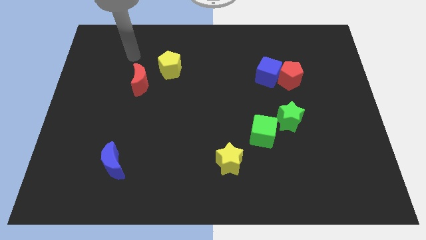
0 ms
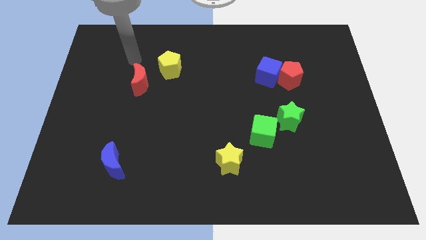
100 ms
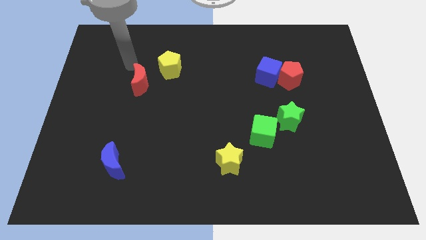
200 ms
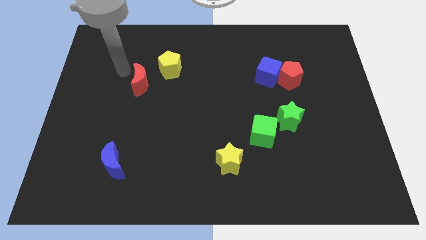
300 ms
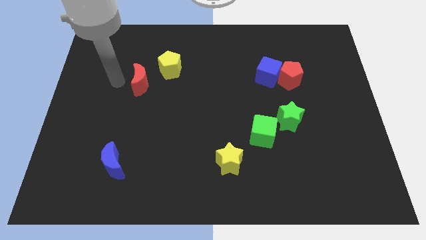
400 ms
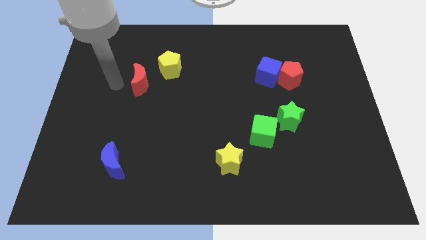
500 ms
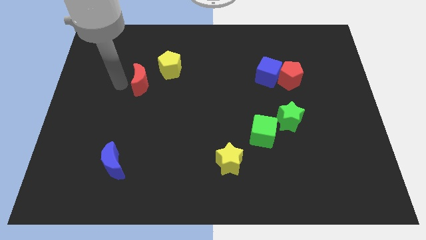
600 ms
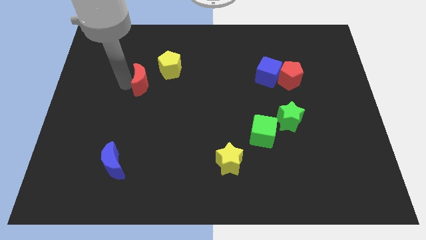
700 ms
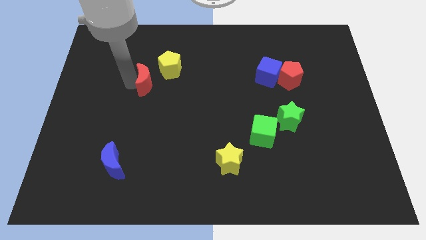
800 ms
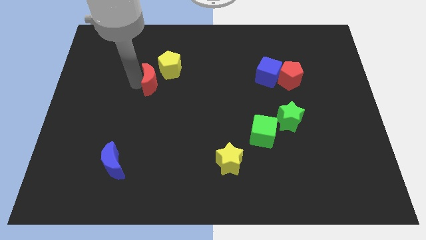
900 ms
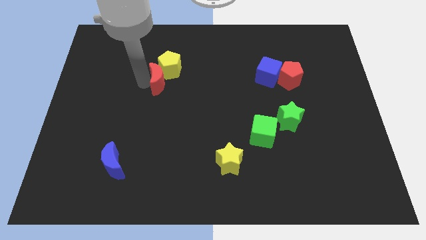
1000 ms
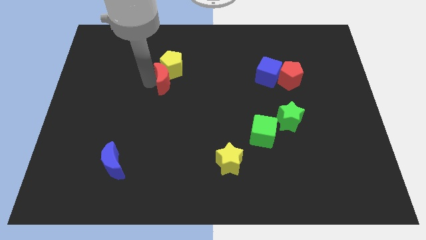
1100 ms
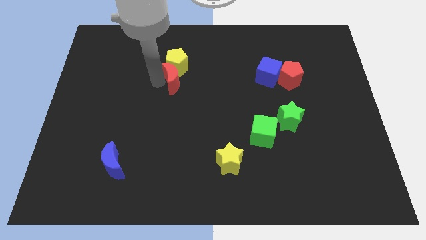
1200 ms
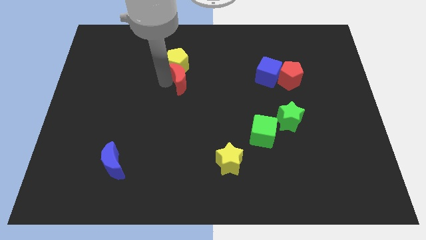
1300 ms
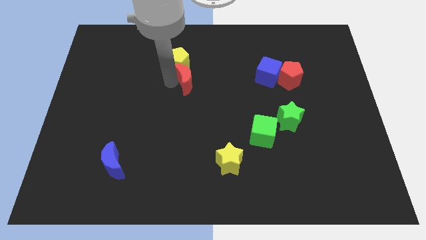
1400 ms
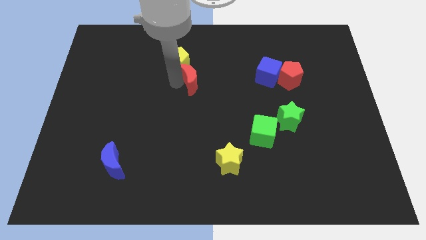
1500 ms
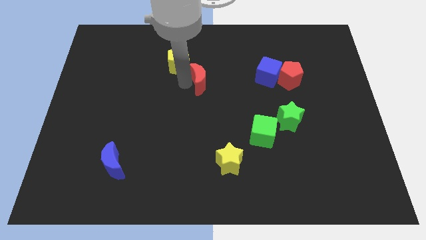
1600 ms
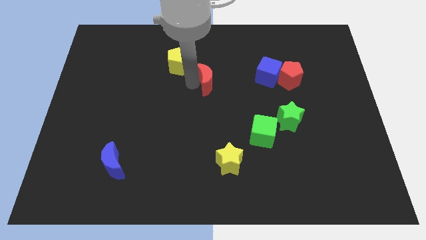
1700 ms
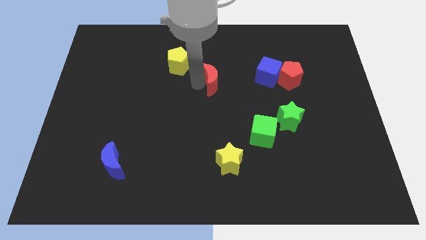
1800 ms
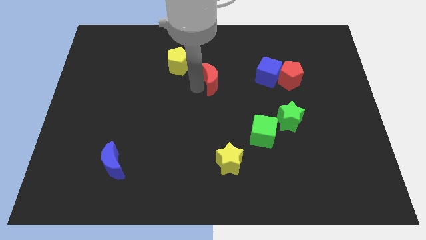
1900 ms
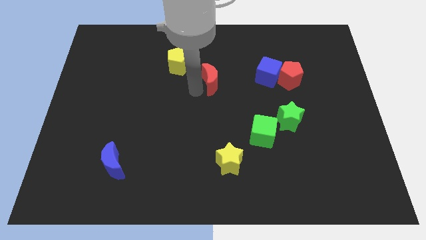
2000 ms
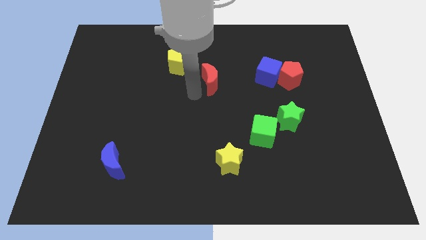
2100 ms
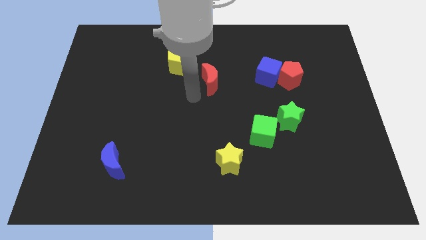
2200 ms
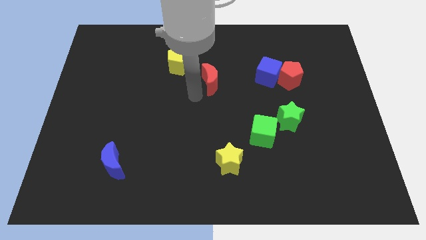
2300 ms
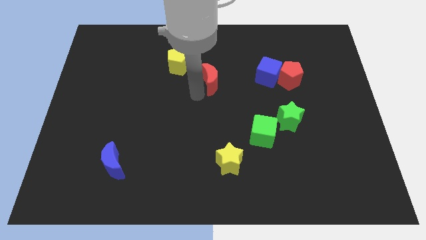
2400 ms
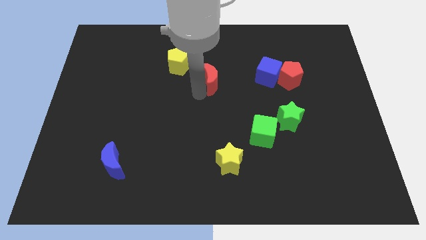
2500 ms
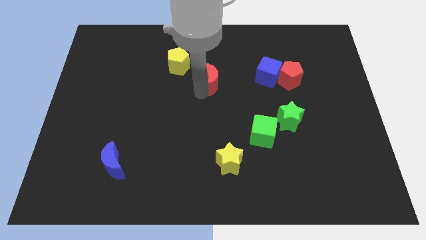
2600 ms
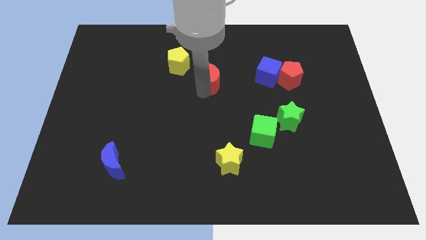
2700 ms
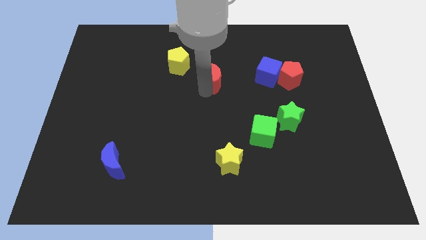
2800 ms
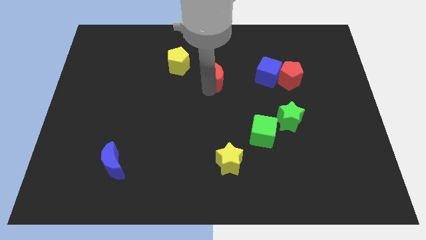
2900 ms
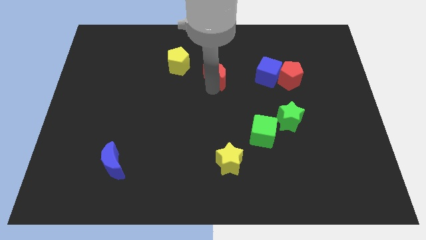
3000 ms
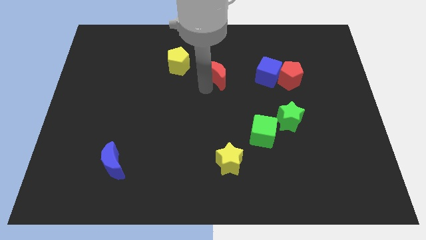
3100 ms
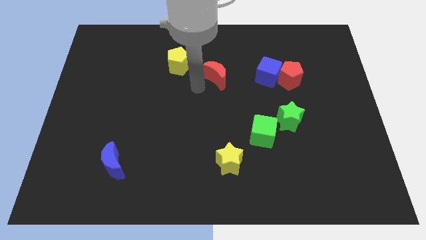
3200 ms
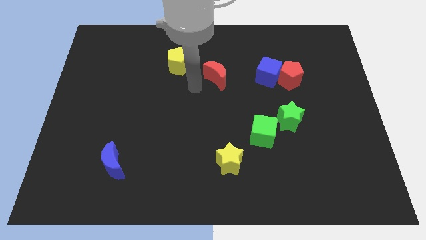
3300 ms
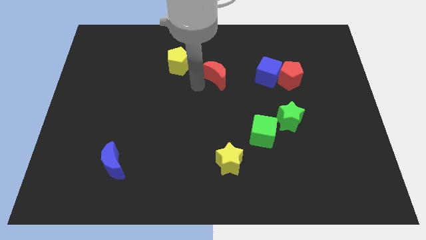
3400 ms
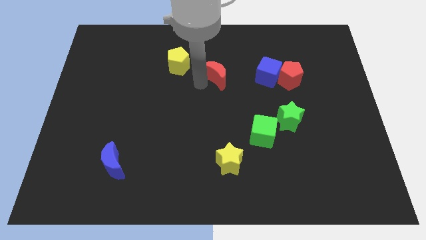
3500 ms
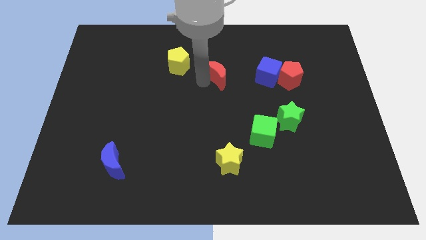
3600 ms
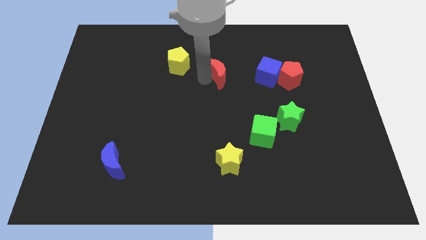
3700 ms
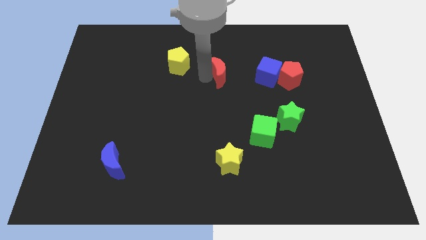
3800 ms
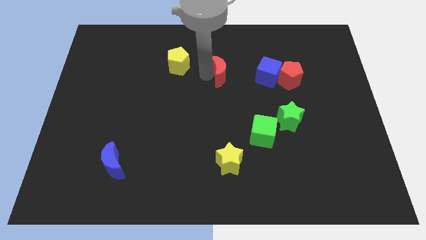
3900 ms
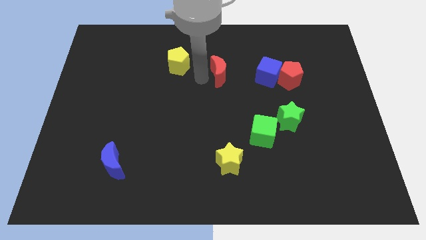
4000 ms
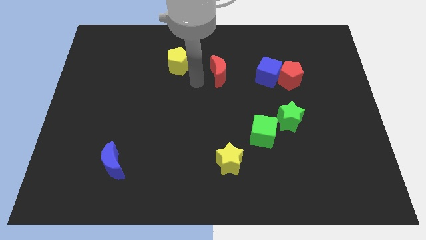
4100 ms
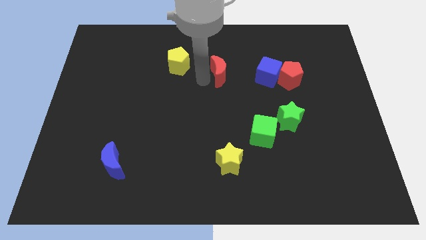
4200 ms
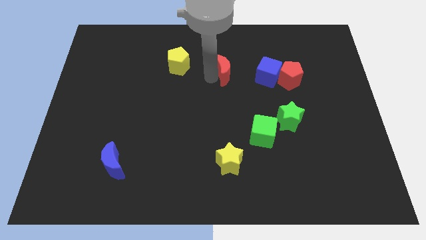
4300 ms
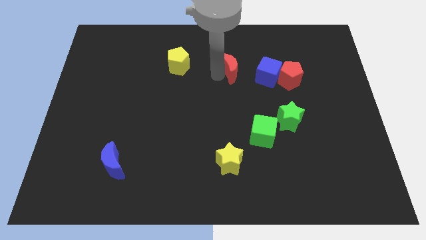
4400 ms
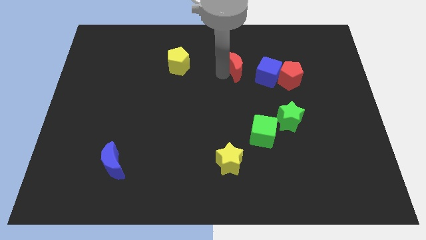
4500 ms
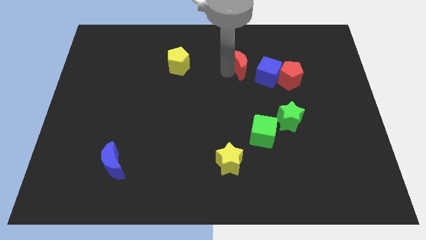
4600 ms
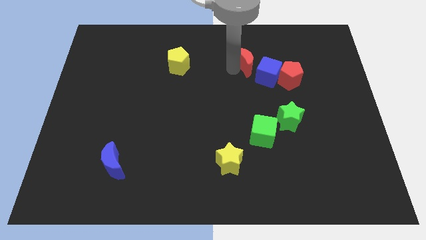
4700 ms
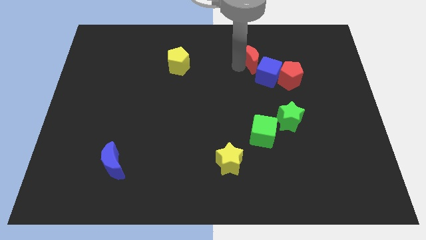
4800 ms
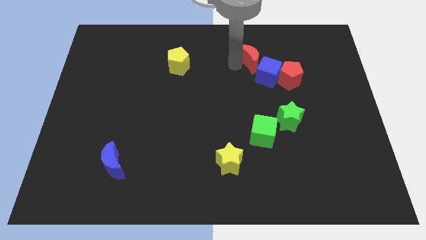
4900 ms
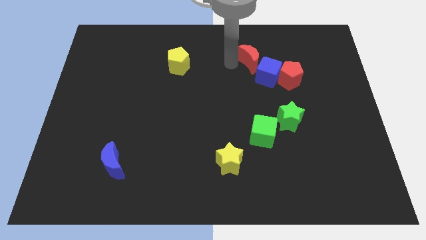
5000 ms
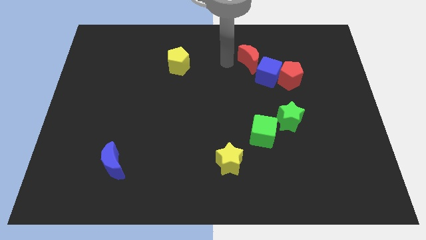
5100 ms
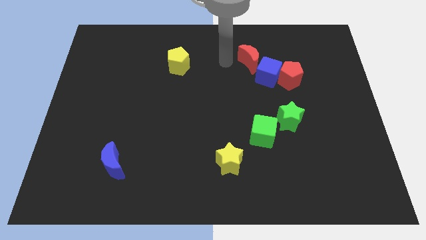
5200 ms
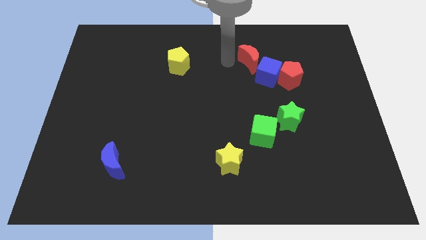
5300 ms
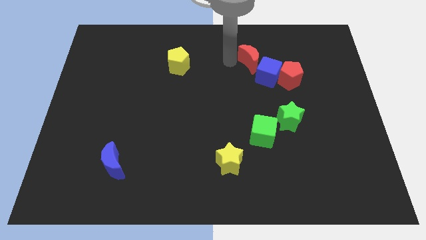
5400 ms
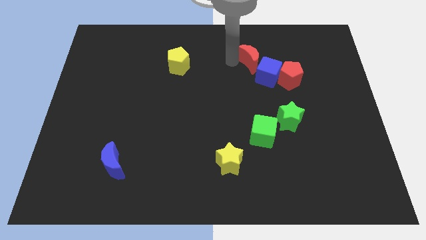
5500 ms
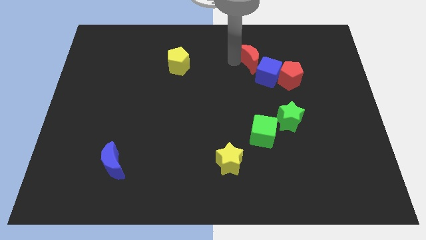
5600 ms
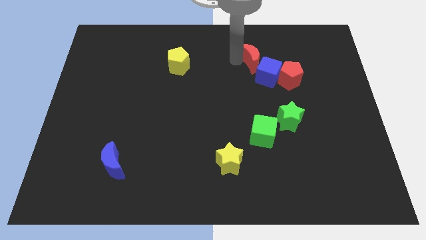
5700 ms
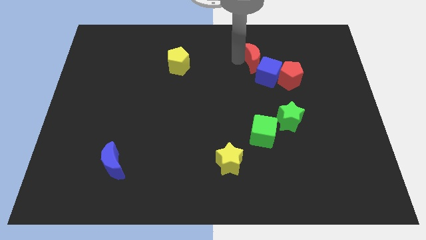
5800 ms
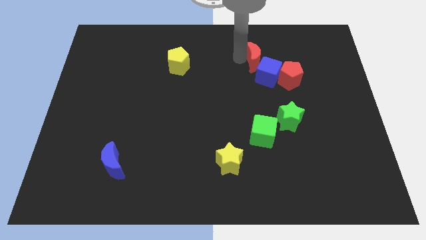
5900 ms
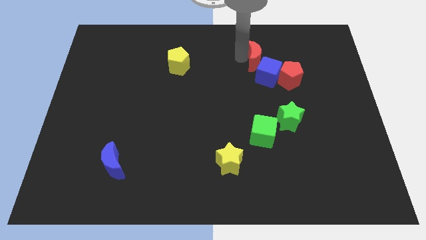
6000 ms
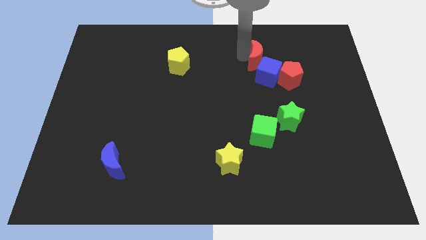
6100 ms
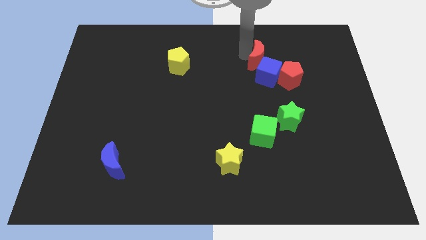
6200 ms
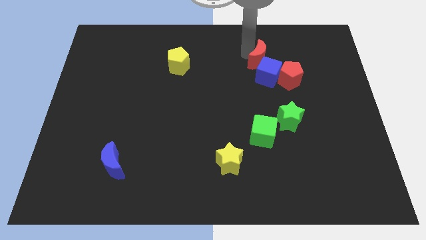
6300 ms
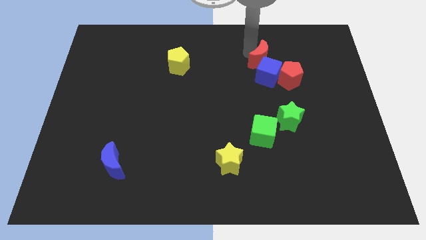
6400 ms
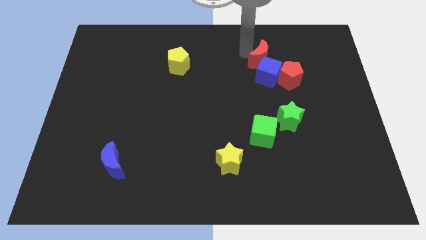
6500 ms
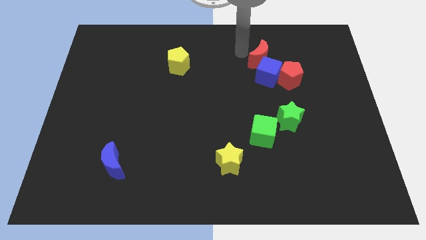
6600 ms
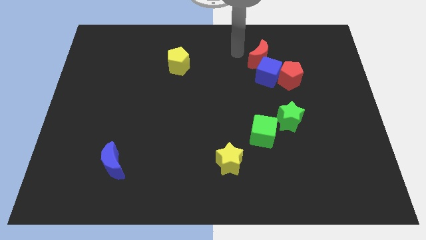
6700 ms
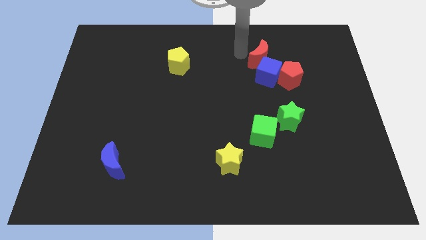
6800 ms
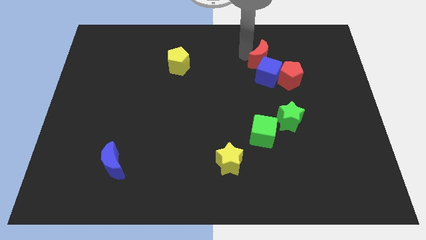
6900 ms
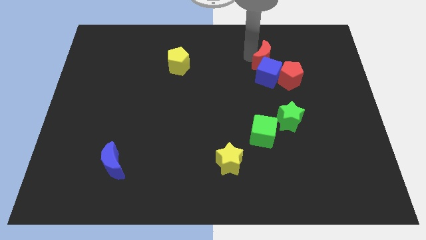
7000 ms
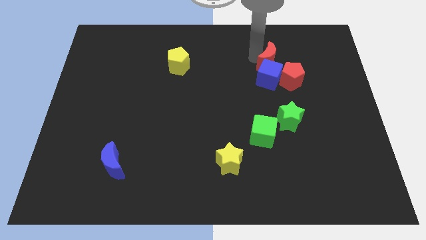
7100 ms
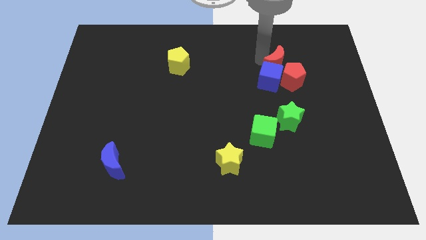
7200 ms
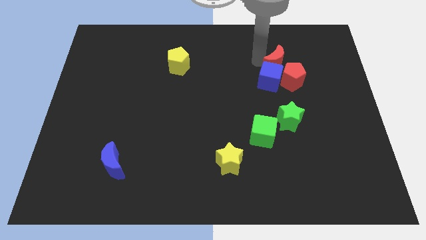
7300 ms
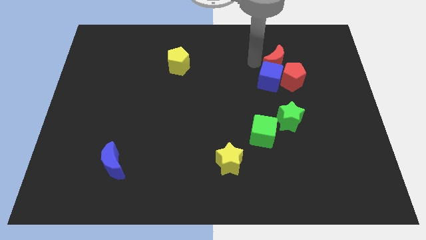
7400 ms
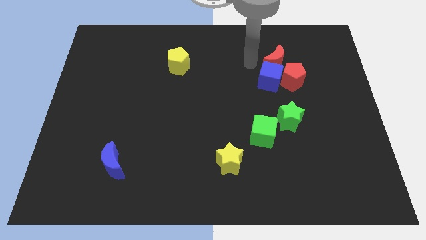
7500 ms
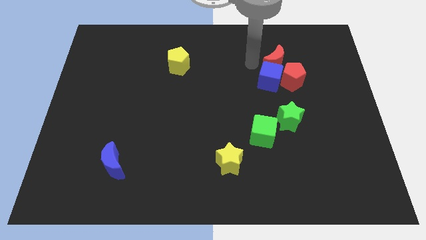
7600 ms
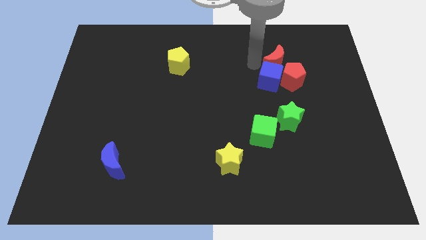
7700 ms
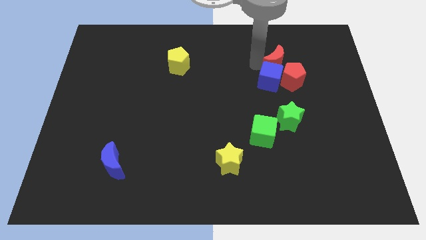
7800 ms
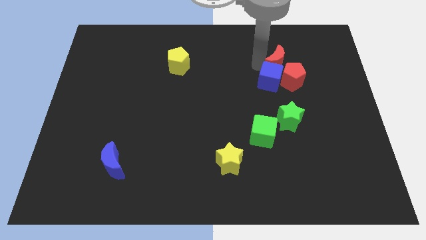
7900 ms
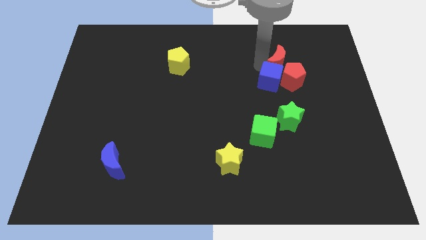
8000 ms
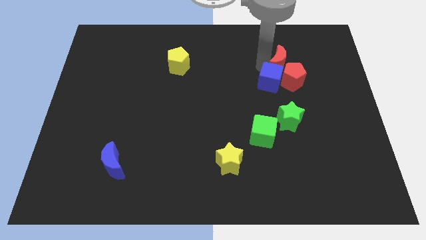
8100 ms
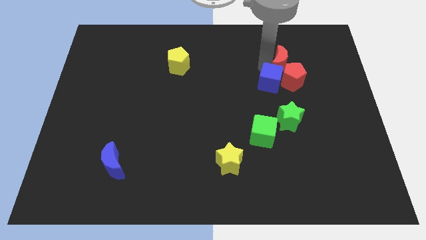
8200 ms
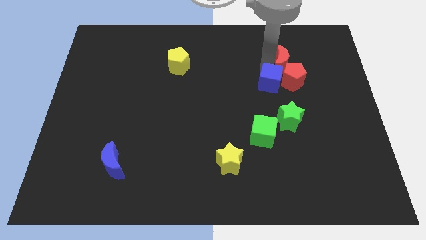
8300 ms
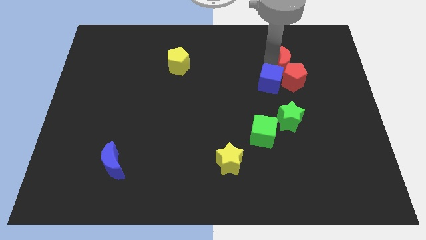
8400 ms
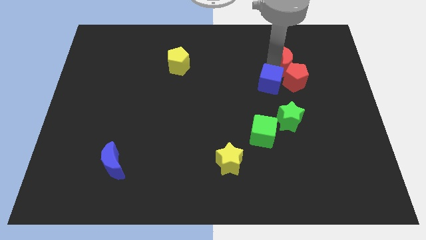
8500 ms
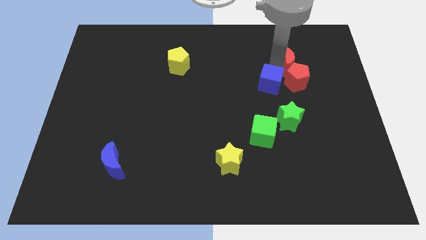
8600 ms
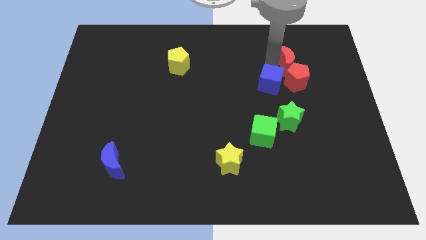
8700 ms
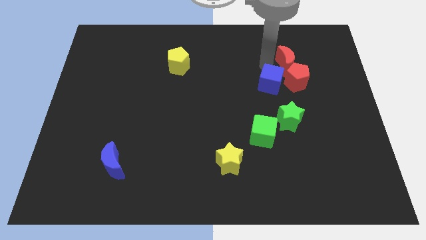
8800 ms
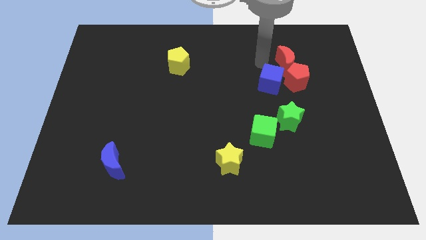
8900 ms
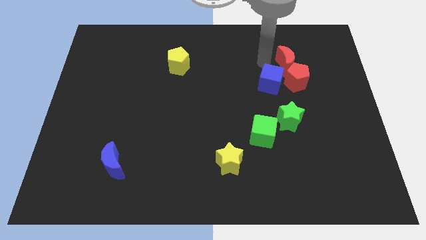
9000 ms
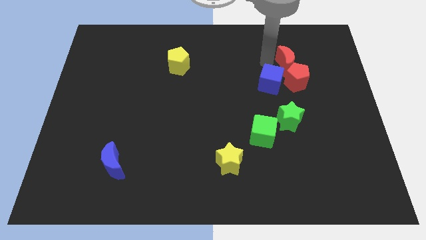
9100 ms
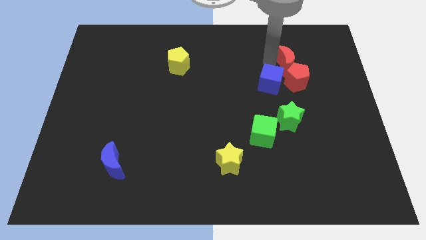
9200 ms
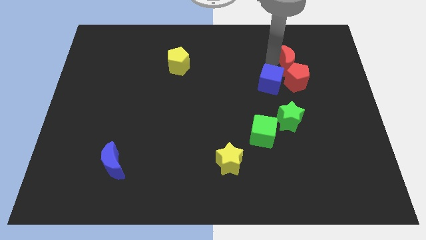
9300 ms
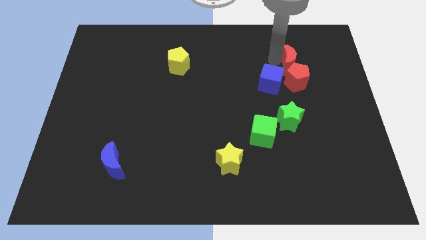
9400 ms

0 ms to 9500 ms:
slide the red moon to the top right side of the red pentagon
